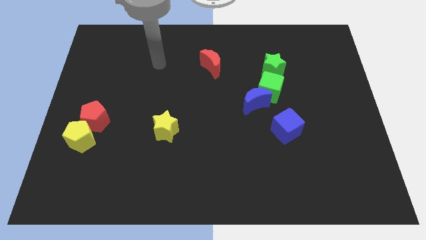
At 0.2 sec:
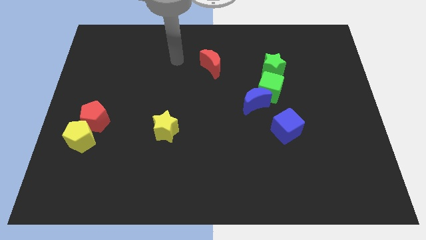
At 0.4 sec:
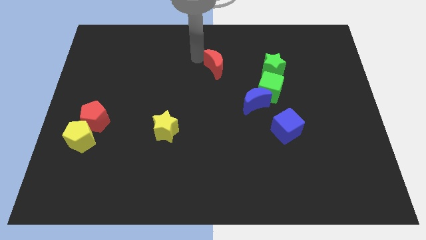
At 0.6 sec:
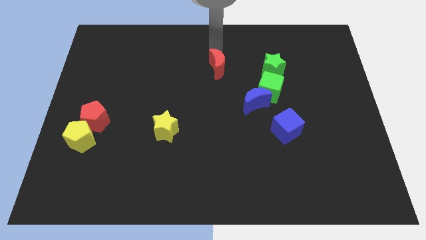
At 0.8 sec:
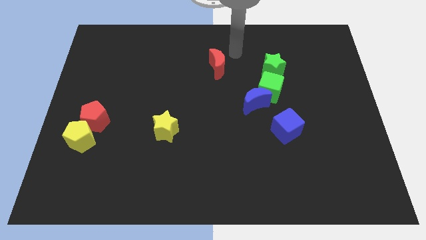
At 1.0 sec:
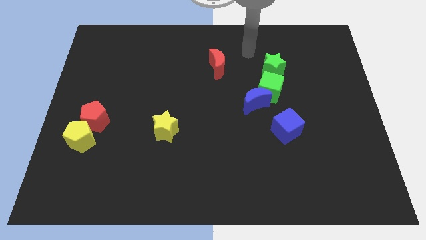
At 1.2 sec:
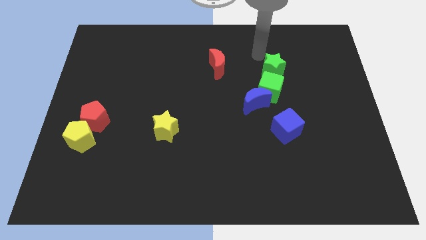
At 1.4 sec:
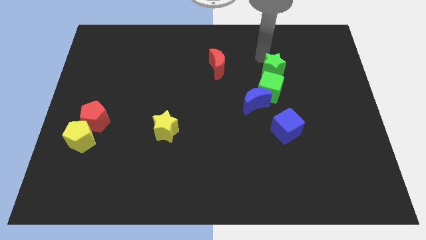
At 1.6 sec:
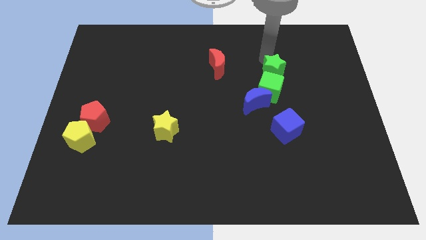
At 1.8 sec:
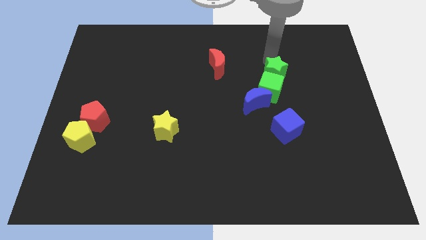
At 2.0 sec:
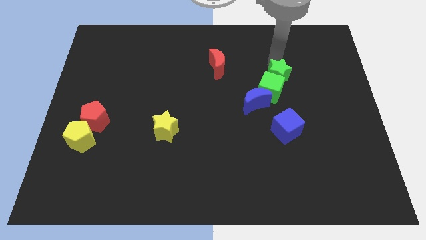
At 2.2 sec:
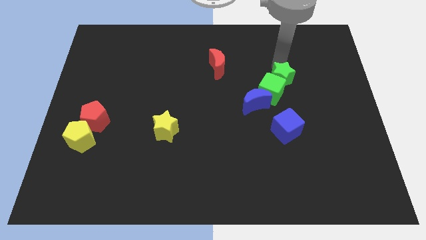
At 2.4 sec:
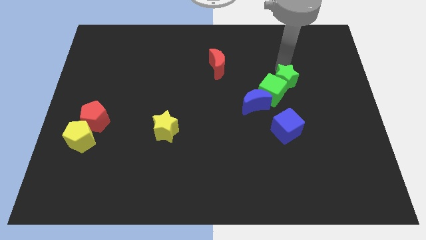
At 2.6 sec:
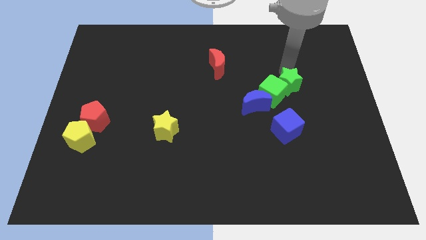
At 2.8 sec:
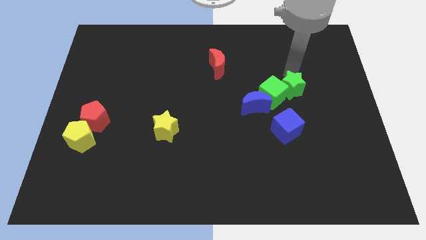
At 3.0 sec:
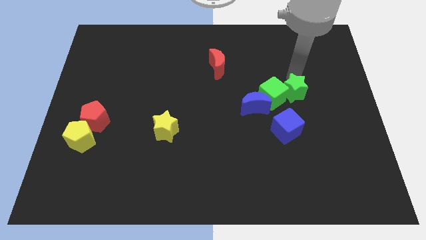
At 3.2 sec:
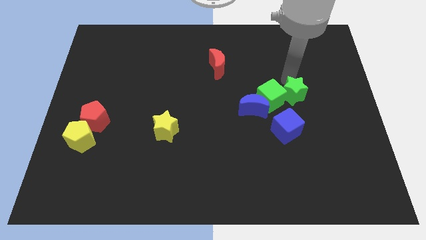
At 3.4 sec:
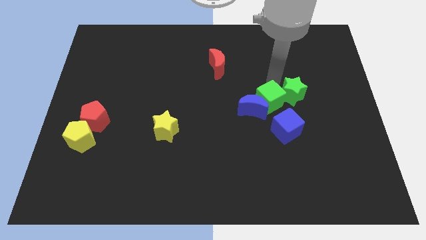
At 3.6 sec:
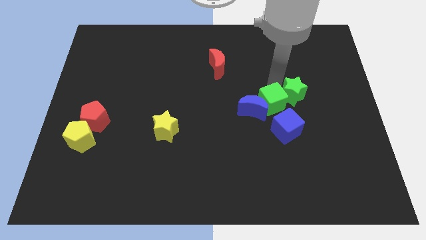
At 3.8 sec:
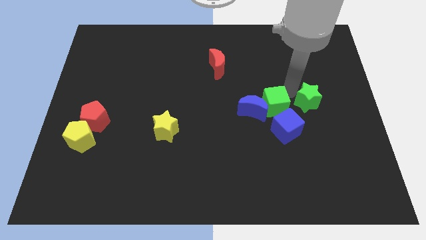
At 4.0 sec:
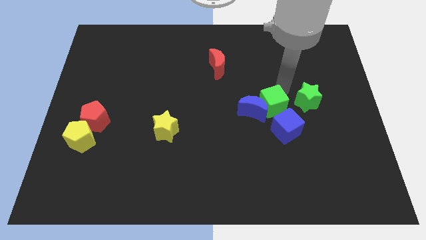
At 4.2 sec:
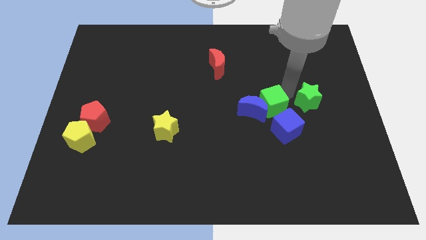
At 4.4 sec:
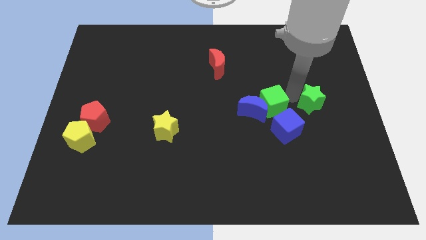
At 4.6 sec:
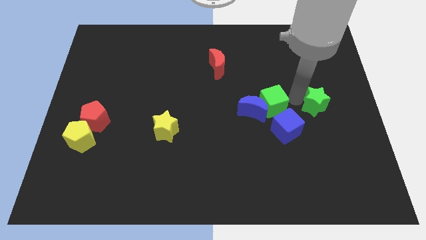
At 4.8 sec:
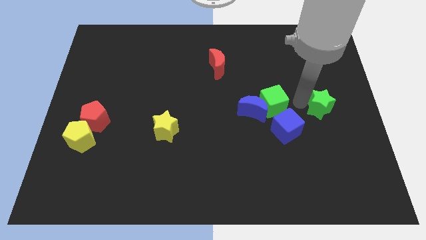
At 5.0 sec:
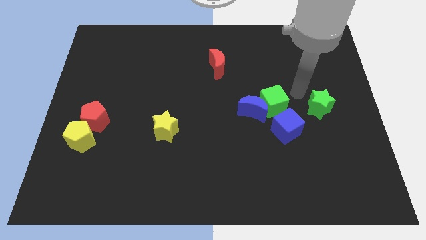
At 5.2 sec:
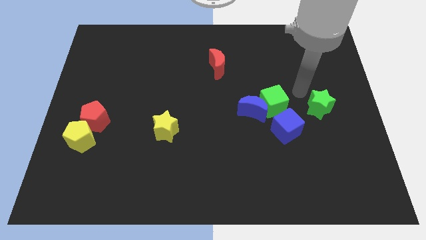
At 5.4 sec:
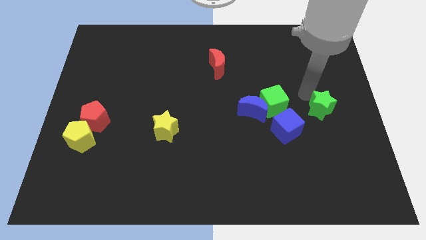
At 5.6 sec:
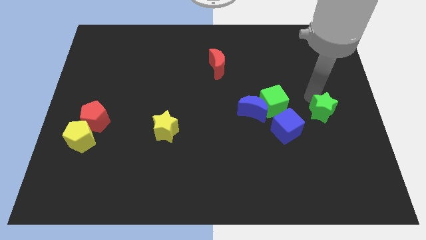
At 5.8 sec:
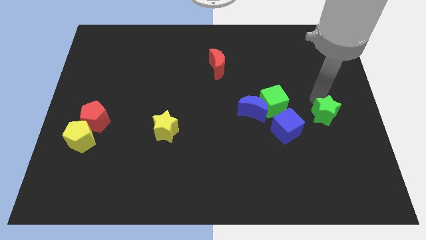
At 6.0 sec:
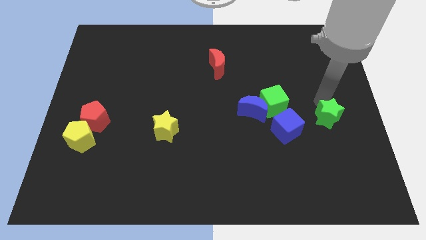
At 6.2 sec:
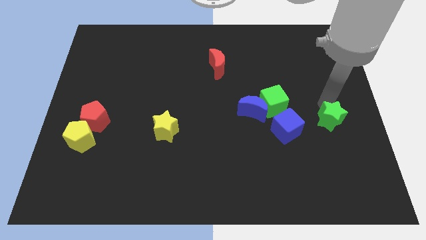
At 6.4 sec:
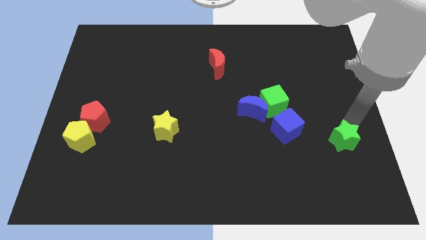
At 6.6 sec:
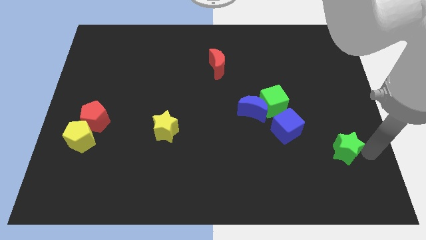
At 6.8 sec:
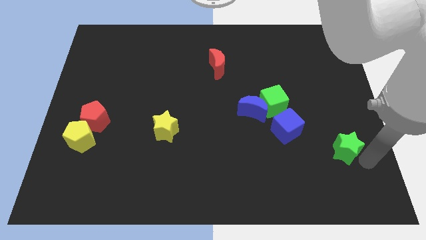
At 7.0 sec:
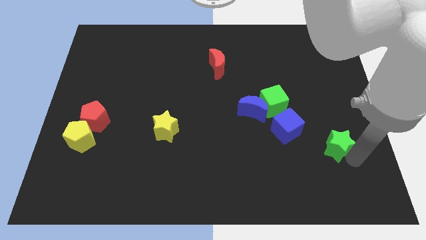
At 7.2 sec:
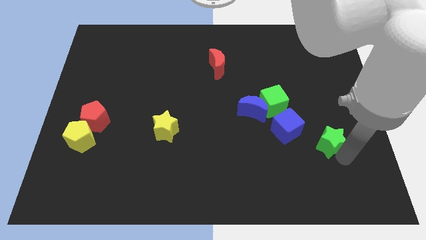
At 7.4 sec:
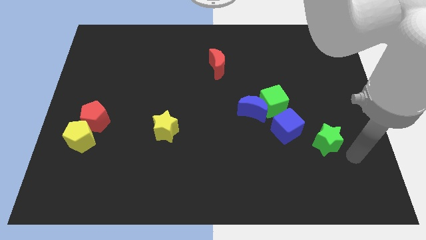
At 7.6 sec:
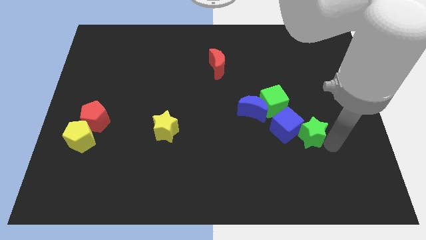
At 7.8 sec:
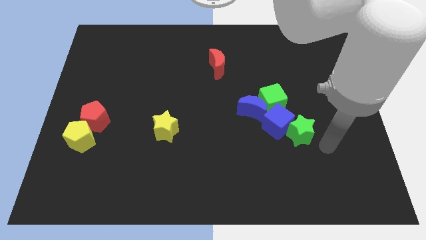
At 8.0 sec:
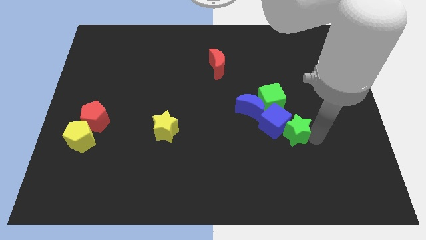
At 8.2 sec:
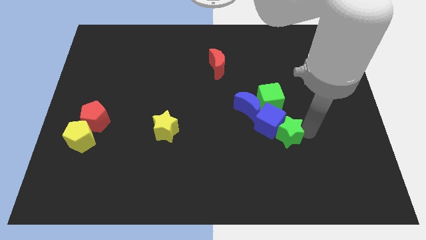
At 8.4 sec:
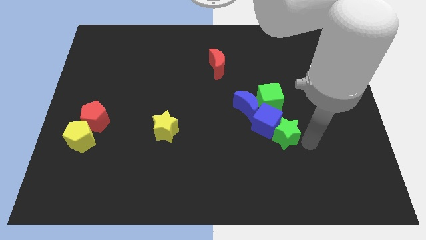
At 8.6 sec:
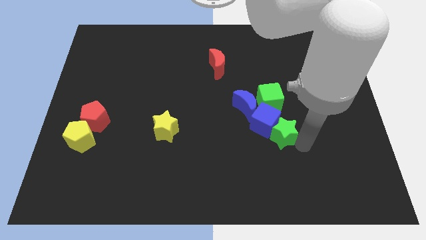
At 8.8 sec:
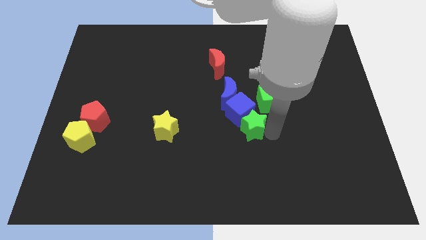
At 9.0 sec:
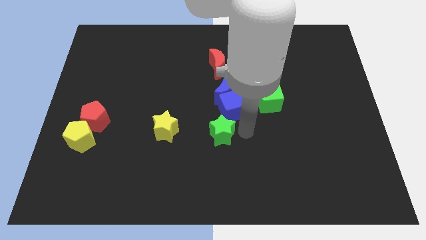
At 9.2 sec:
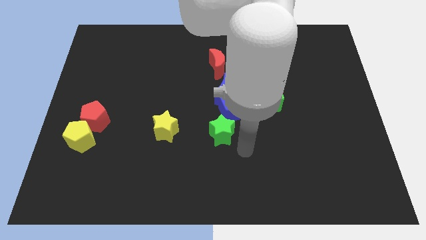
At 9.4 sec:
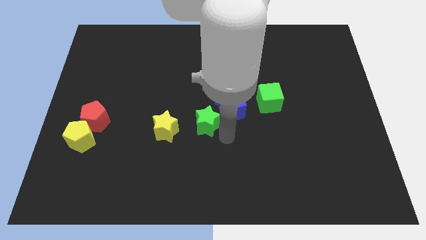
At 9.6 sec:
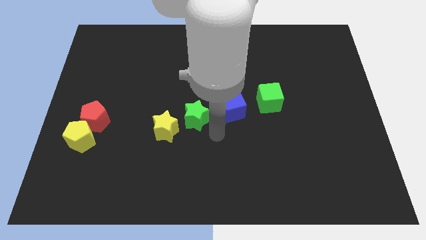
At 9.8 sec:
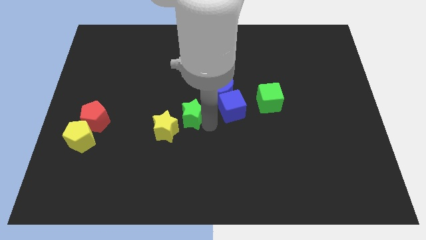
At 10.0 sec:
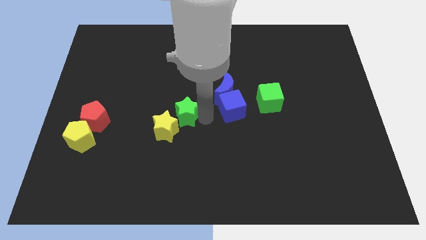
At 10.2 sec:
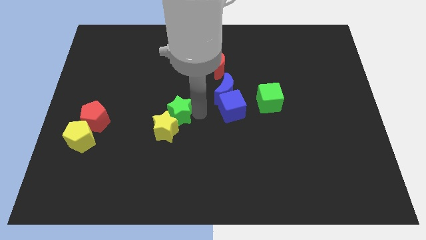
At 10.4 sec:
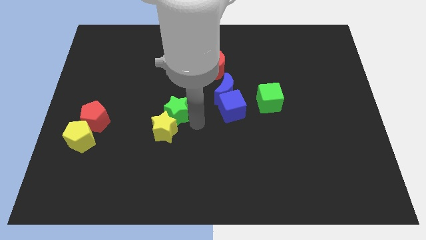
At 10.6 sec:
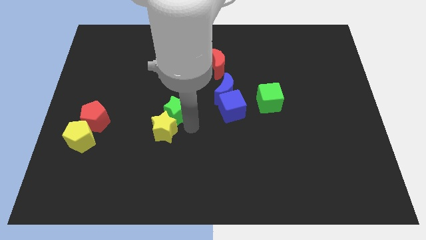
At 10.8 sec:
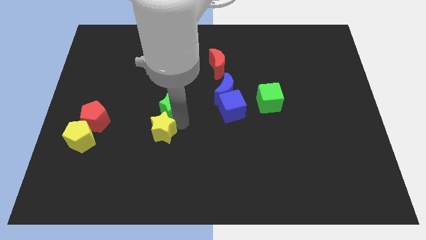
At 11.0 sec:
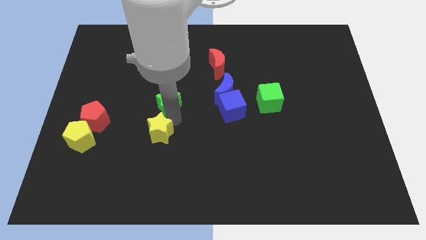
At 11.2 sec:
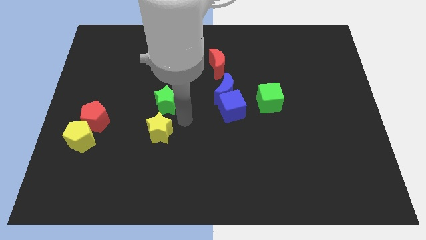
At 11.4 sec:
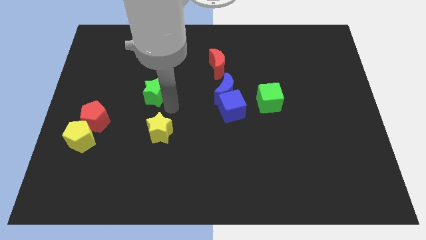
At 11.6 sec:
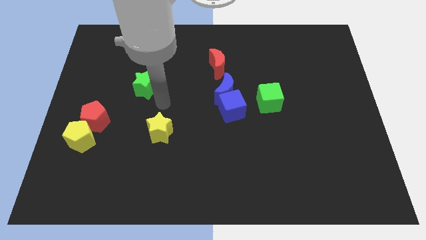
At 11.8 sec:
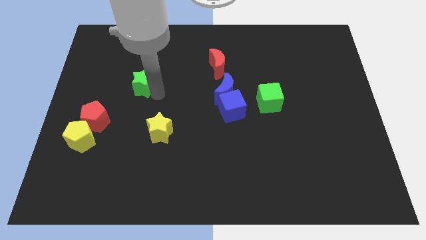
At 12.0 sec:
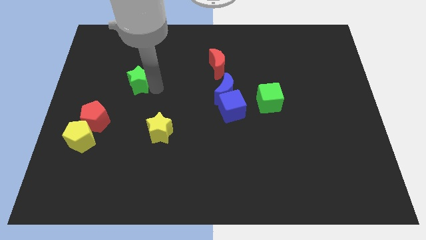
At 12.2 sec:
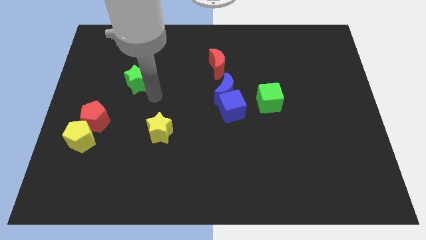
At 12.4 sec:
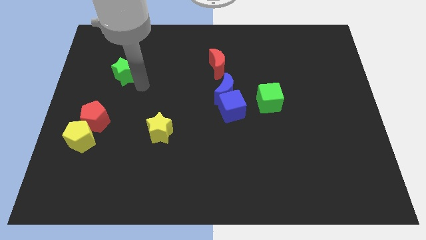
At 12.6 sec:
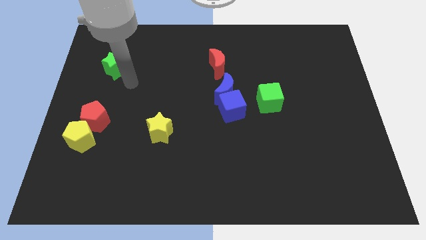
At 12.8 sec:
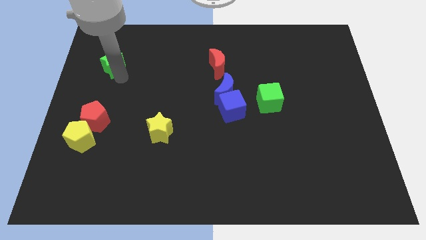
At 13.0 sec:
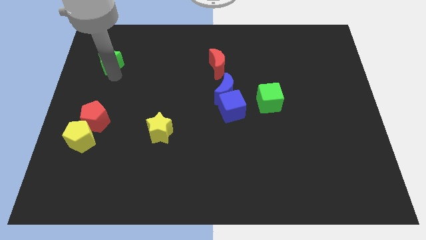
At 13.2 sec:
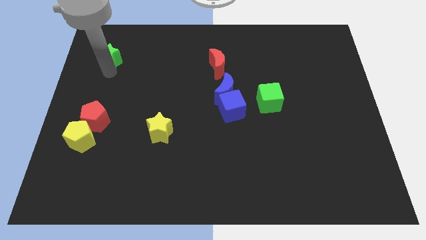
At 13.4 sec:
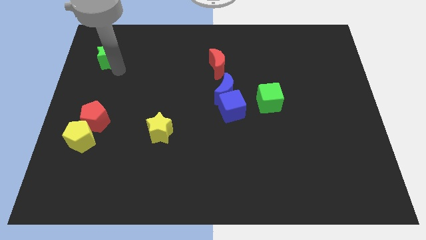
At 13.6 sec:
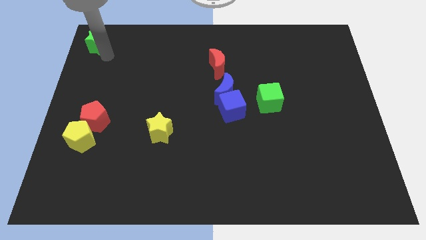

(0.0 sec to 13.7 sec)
put the green star to the top left corner
